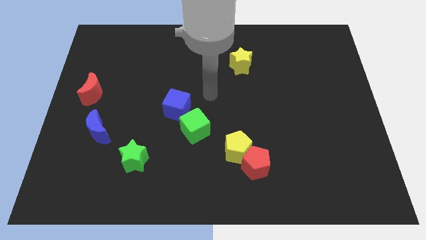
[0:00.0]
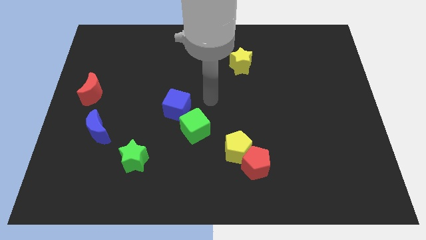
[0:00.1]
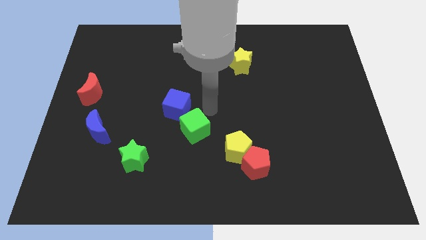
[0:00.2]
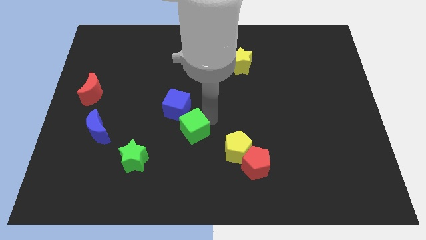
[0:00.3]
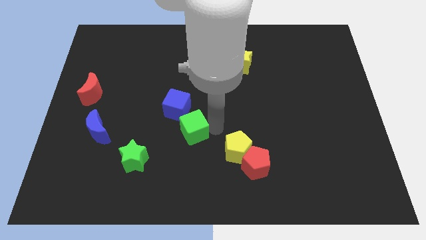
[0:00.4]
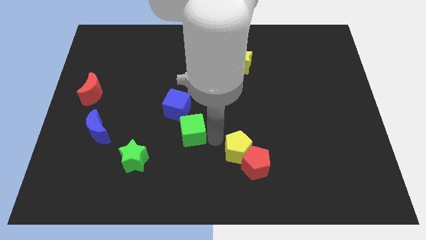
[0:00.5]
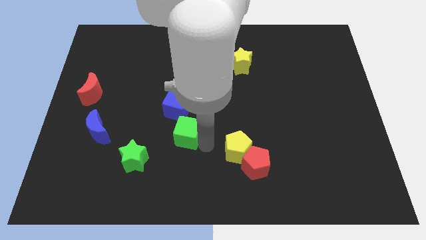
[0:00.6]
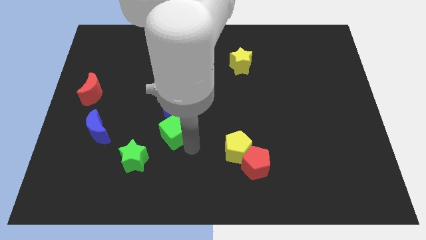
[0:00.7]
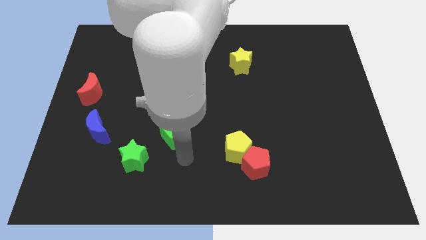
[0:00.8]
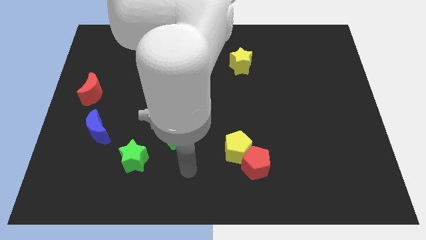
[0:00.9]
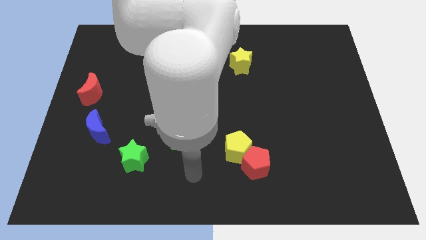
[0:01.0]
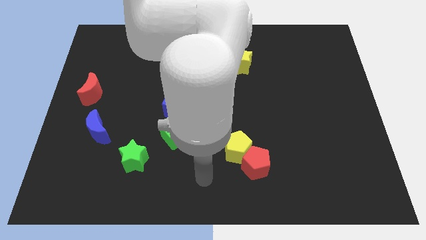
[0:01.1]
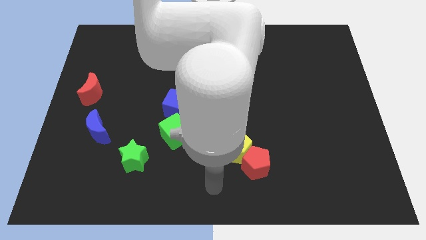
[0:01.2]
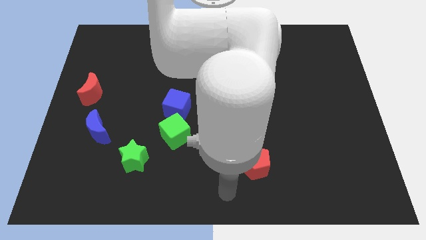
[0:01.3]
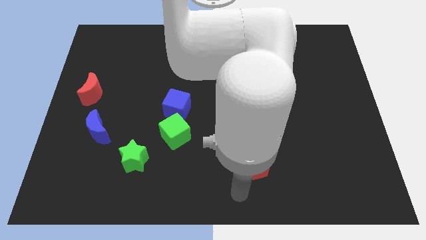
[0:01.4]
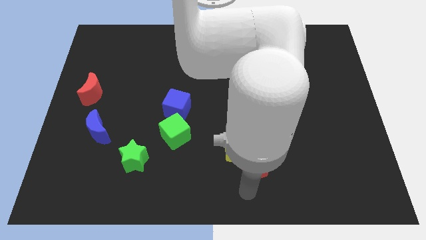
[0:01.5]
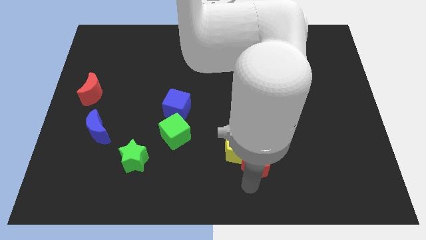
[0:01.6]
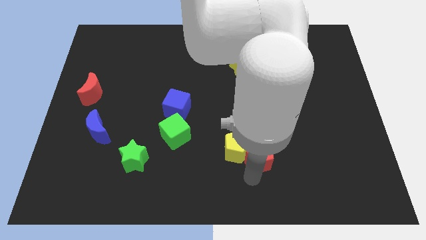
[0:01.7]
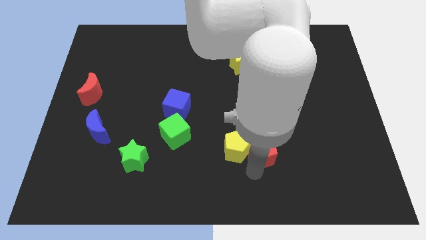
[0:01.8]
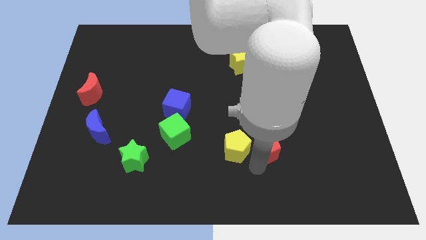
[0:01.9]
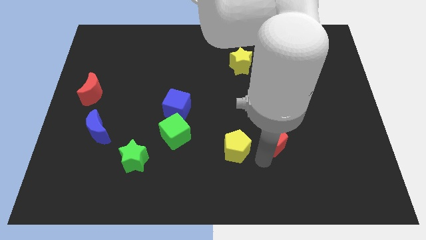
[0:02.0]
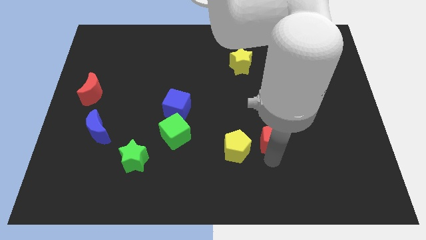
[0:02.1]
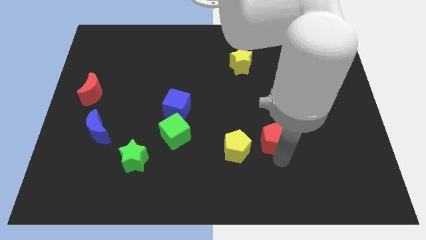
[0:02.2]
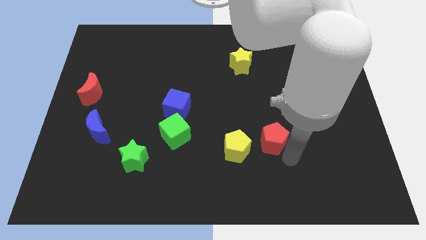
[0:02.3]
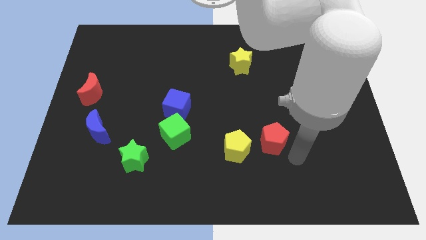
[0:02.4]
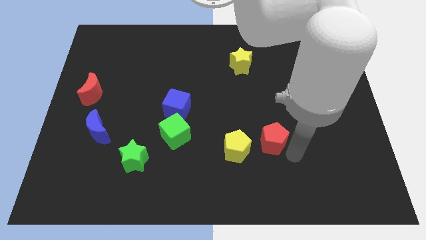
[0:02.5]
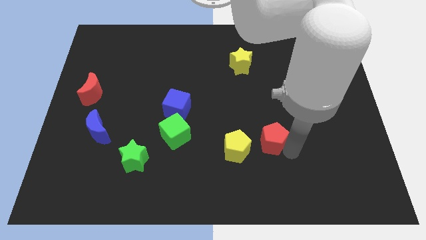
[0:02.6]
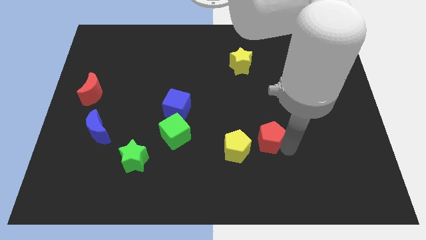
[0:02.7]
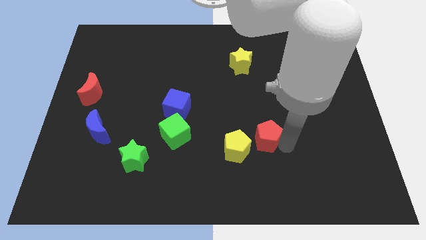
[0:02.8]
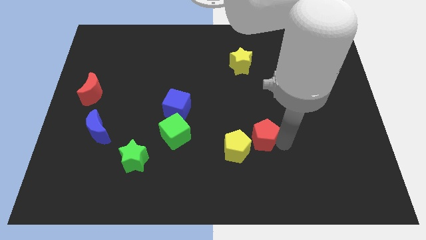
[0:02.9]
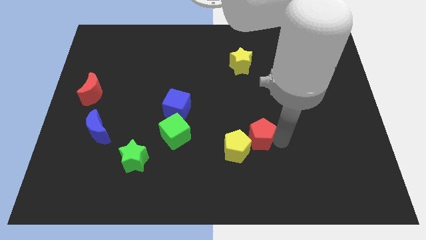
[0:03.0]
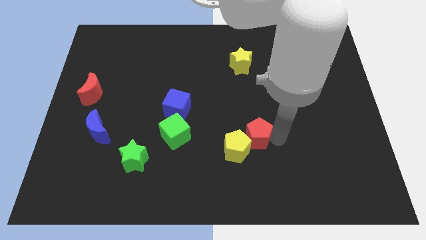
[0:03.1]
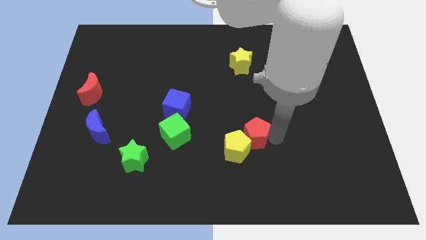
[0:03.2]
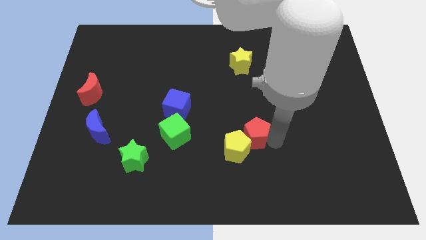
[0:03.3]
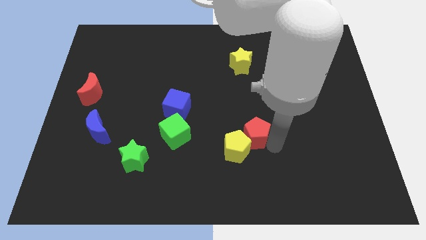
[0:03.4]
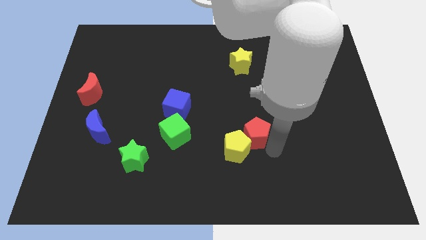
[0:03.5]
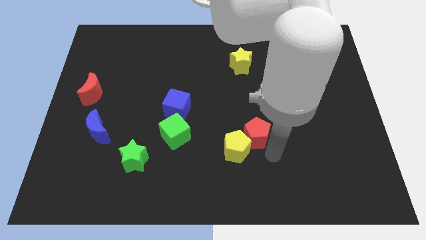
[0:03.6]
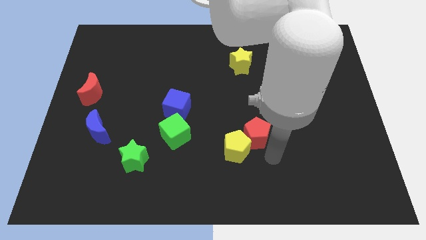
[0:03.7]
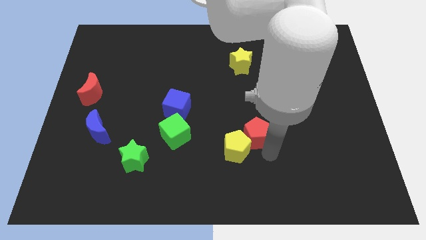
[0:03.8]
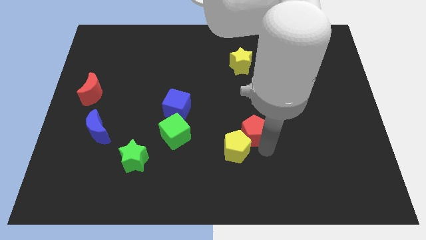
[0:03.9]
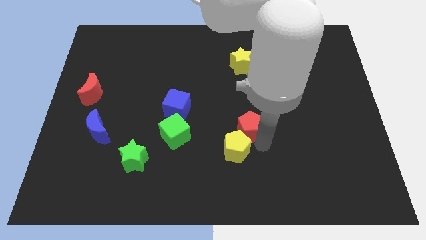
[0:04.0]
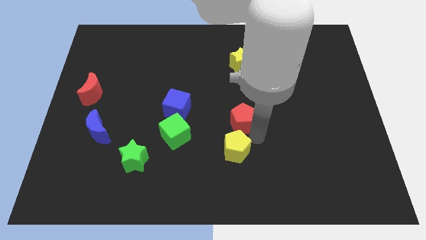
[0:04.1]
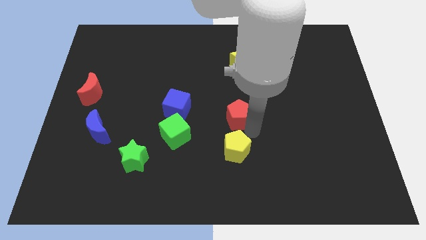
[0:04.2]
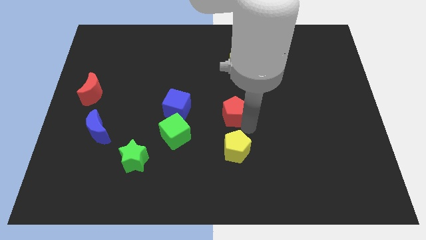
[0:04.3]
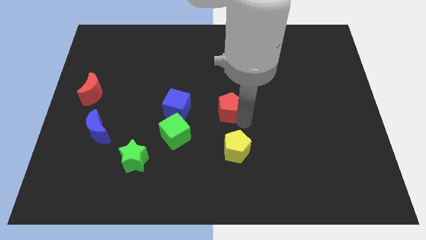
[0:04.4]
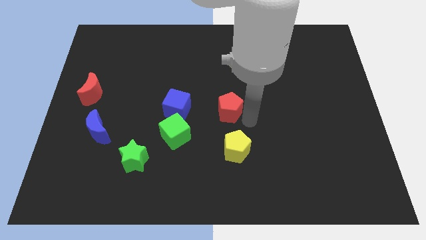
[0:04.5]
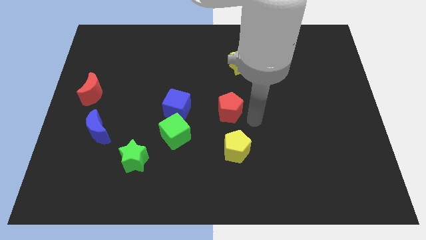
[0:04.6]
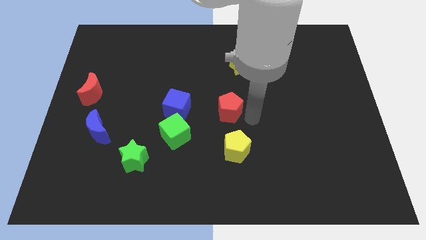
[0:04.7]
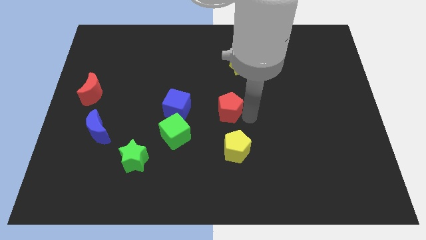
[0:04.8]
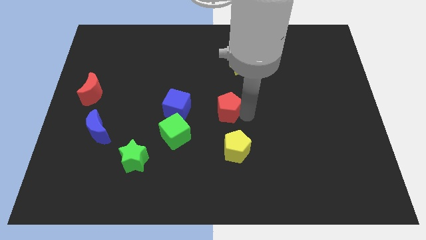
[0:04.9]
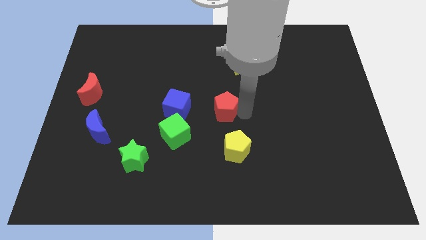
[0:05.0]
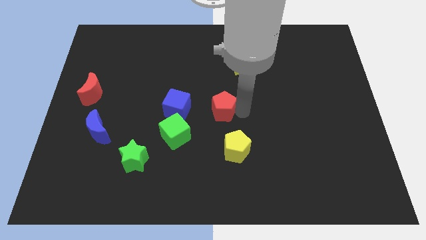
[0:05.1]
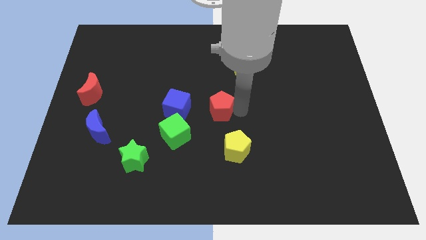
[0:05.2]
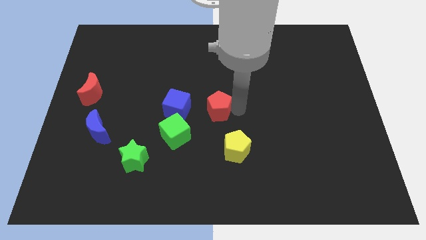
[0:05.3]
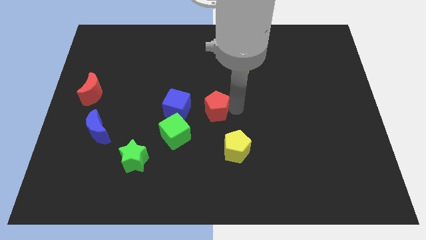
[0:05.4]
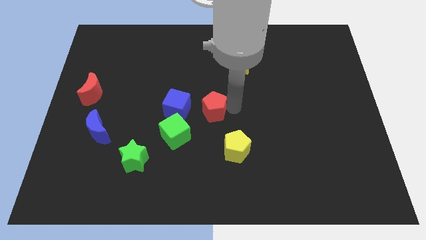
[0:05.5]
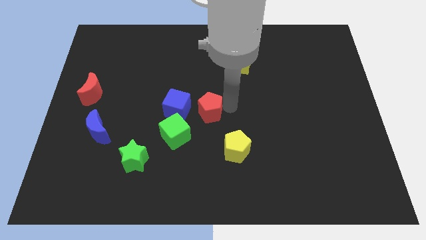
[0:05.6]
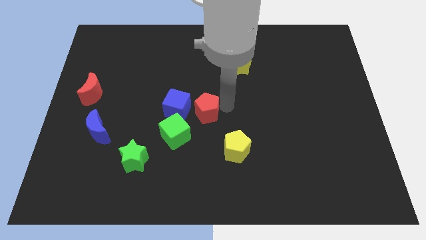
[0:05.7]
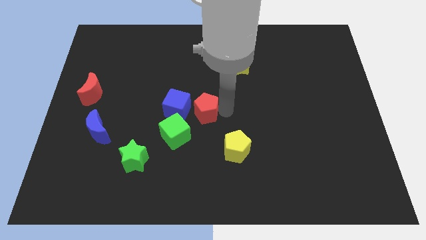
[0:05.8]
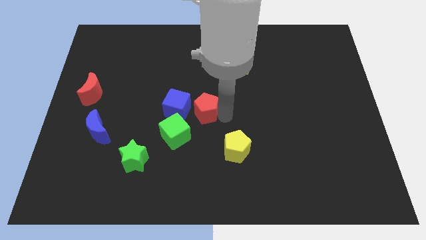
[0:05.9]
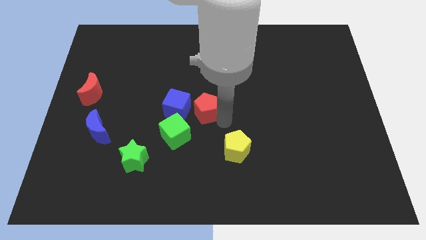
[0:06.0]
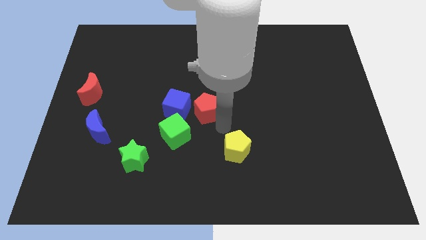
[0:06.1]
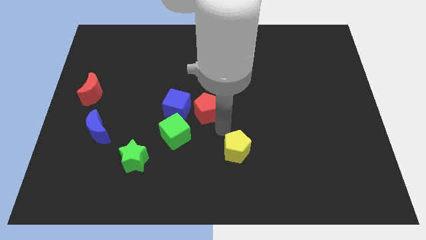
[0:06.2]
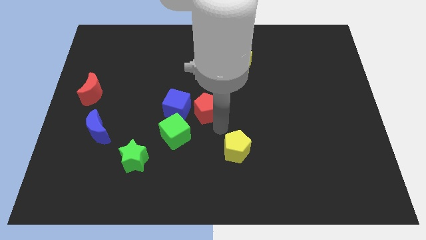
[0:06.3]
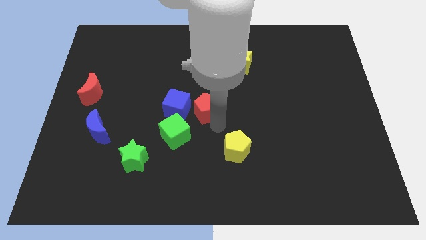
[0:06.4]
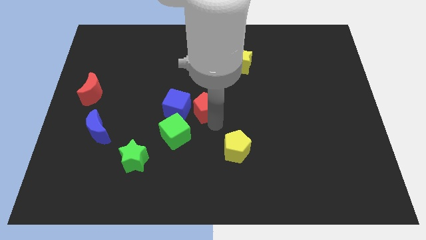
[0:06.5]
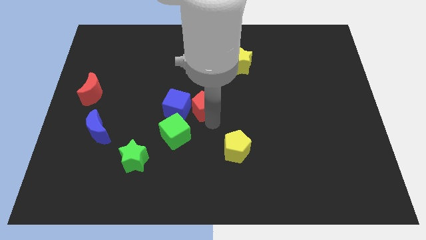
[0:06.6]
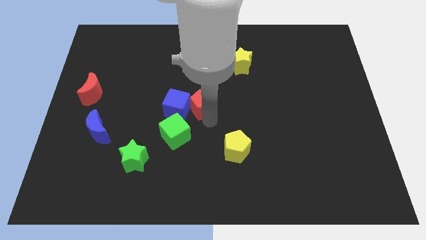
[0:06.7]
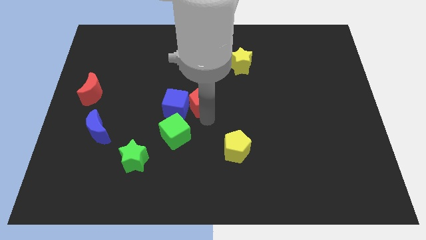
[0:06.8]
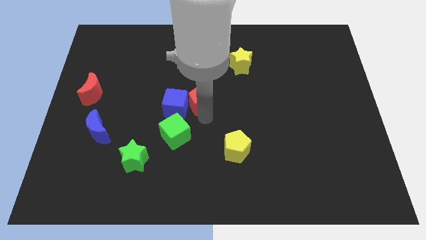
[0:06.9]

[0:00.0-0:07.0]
push the red pentagon diagonally up and left

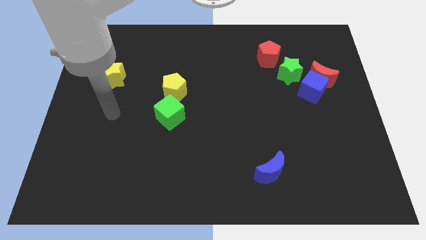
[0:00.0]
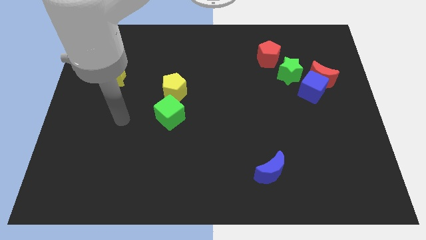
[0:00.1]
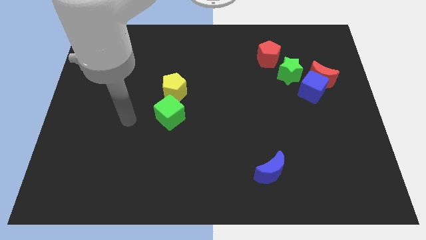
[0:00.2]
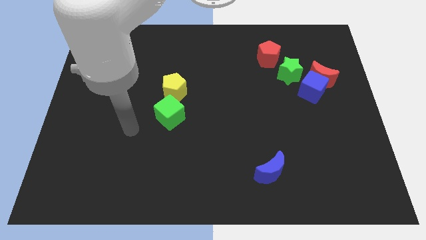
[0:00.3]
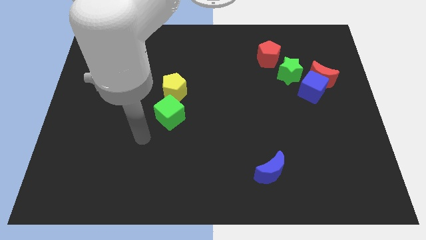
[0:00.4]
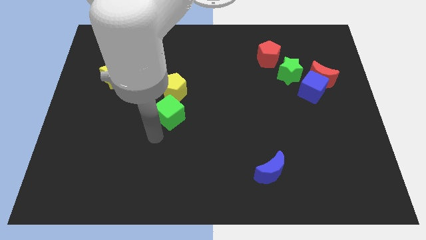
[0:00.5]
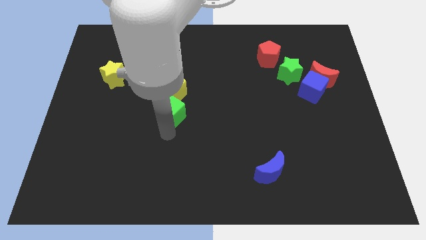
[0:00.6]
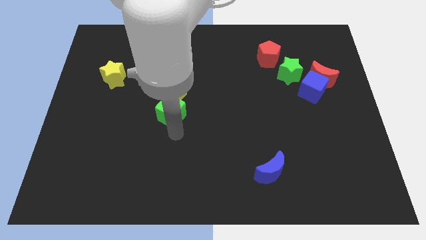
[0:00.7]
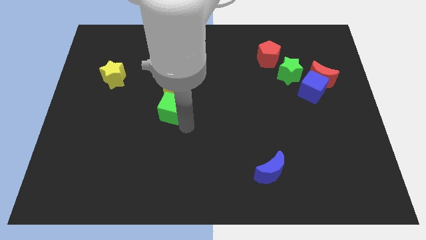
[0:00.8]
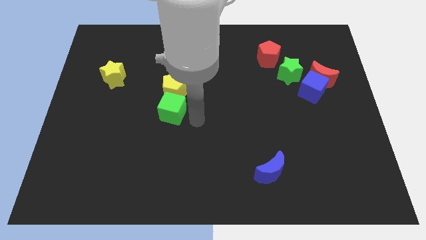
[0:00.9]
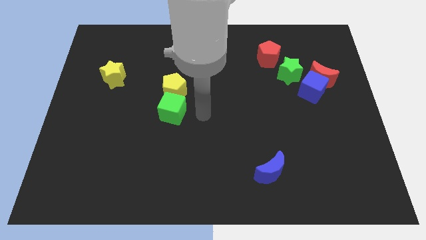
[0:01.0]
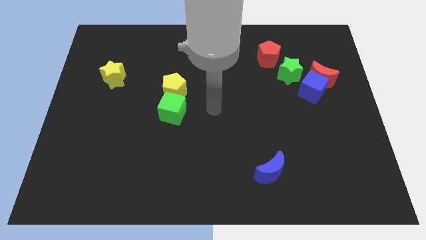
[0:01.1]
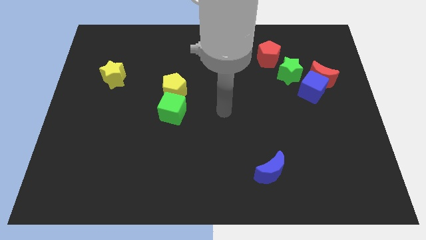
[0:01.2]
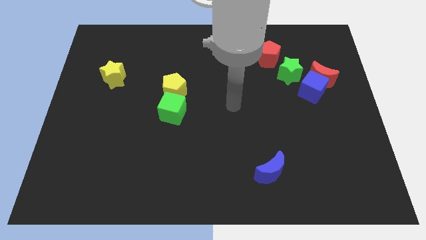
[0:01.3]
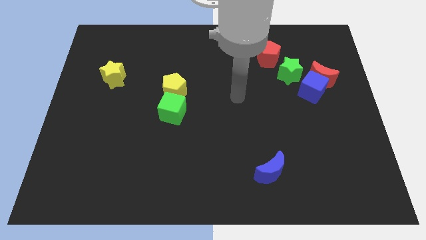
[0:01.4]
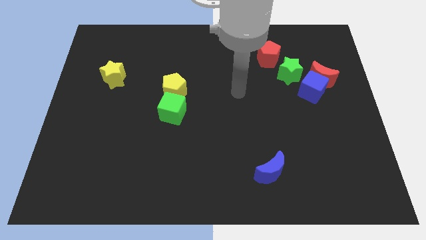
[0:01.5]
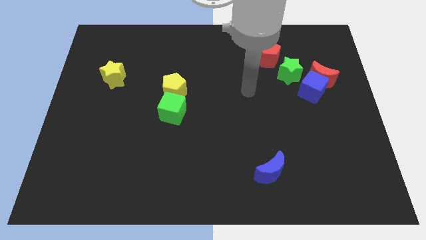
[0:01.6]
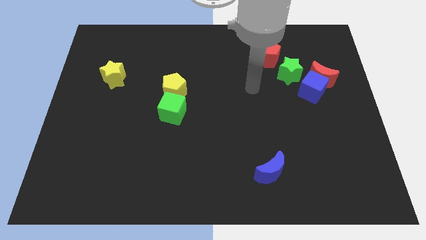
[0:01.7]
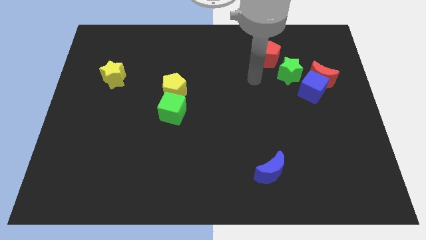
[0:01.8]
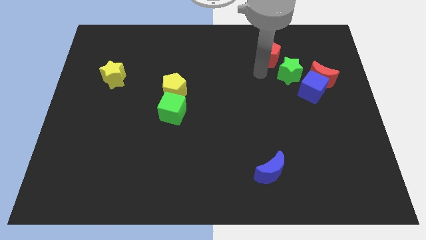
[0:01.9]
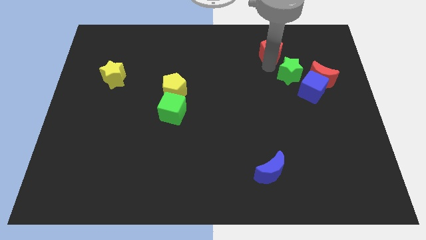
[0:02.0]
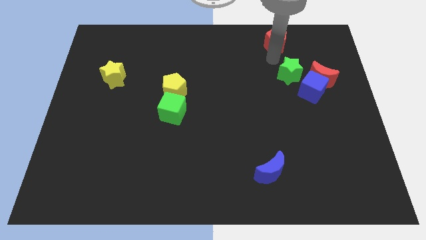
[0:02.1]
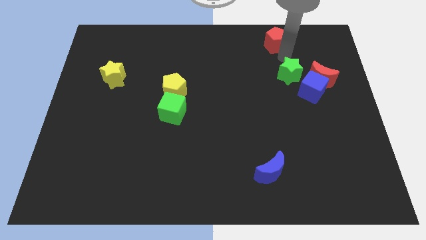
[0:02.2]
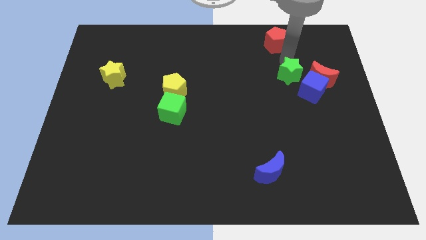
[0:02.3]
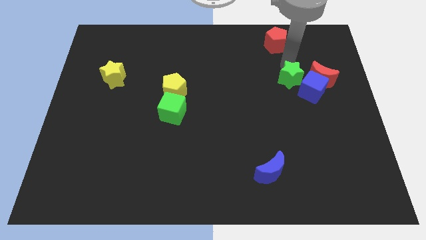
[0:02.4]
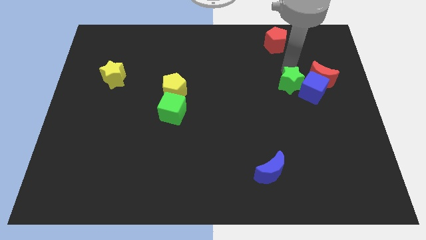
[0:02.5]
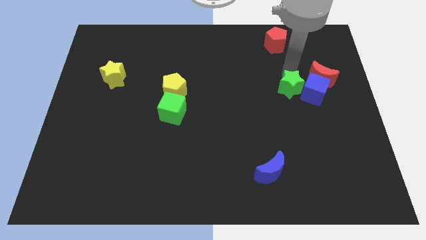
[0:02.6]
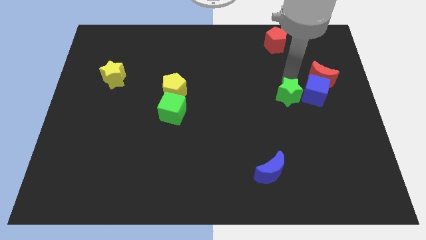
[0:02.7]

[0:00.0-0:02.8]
slightly slide the green star downwards
